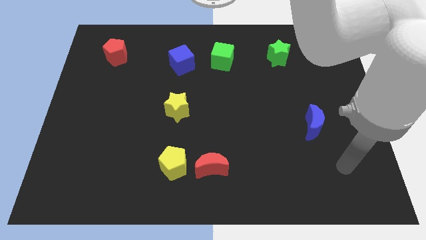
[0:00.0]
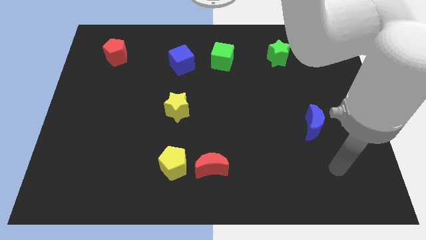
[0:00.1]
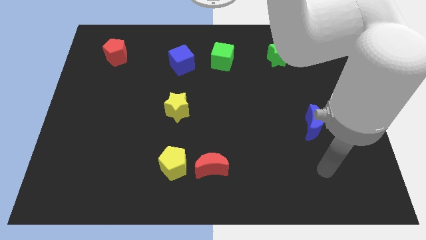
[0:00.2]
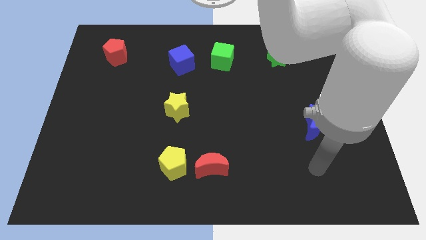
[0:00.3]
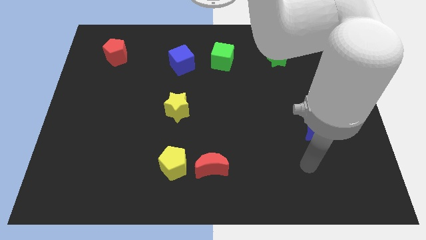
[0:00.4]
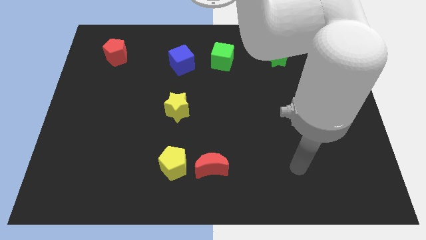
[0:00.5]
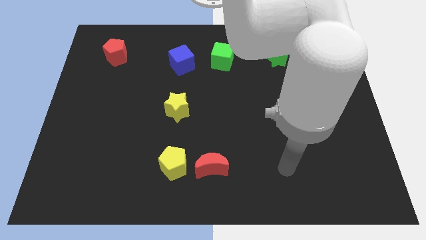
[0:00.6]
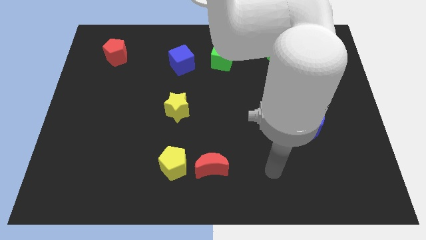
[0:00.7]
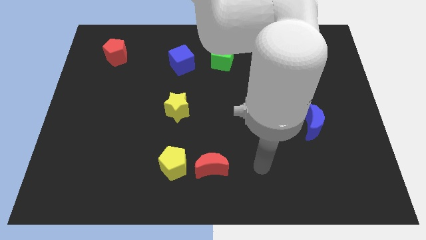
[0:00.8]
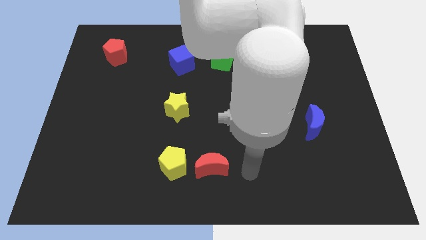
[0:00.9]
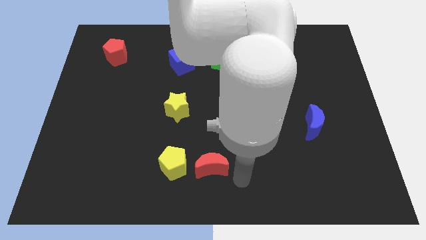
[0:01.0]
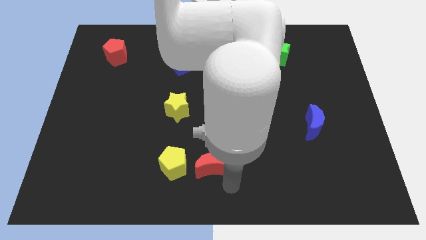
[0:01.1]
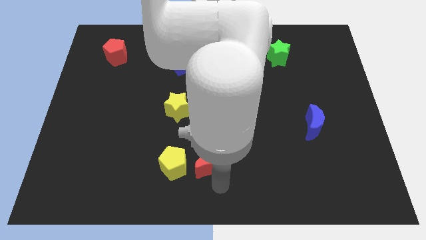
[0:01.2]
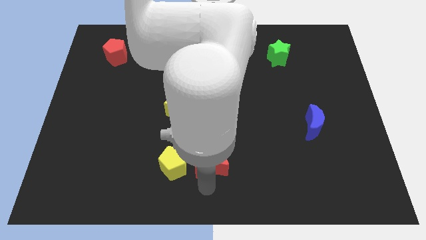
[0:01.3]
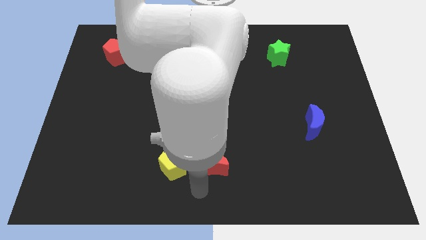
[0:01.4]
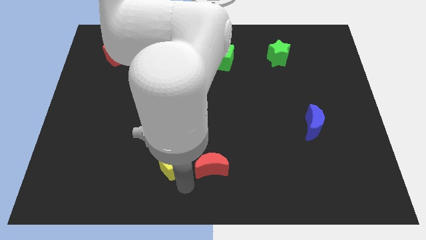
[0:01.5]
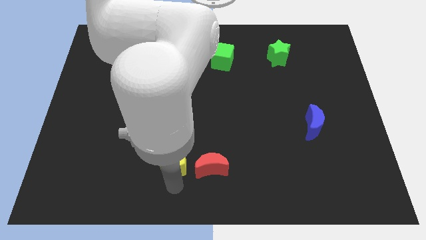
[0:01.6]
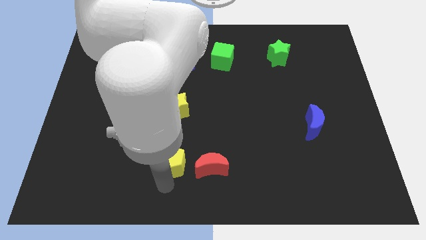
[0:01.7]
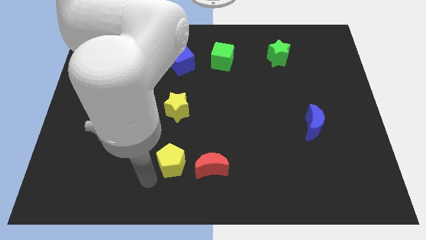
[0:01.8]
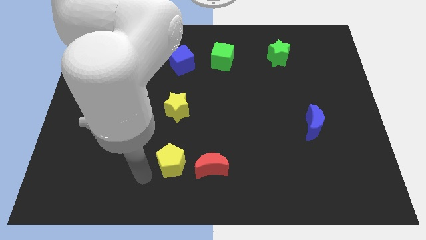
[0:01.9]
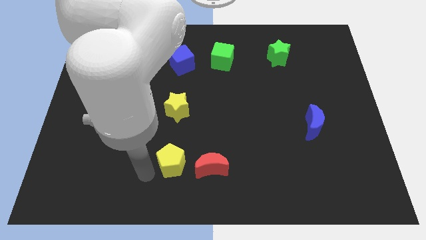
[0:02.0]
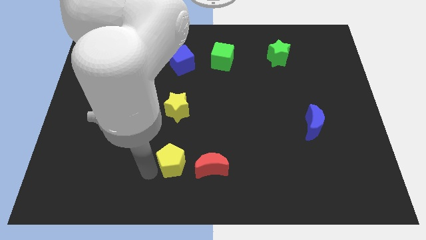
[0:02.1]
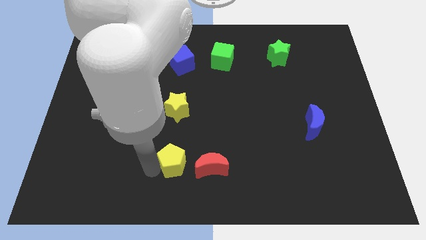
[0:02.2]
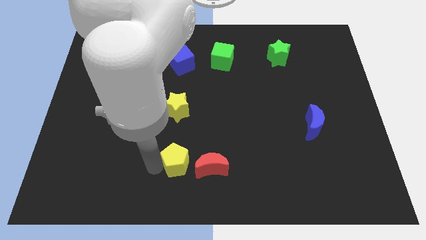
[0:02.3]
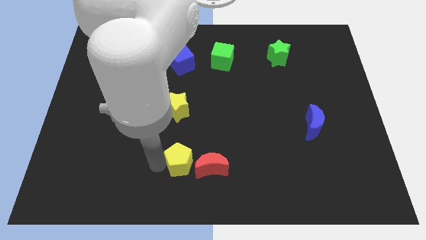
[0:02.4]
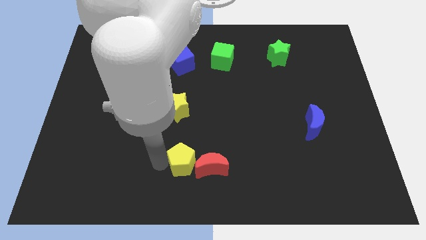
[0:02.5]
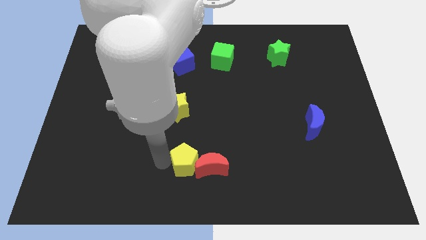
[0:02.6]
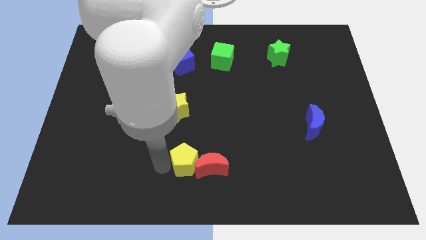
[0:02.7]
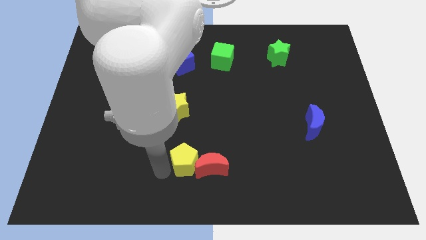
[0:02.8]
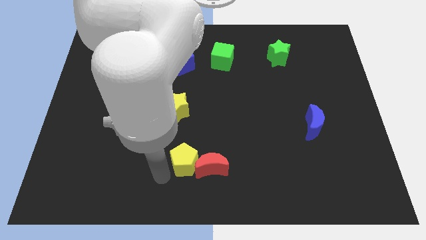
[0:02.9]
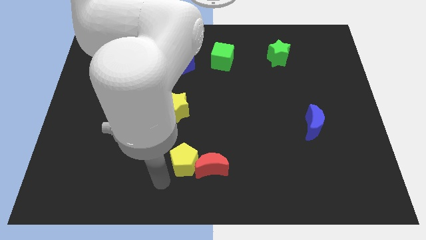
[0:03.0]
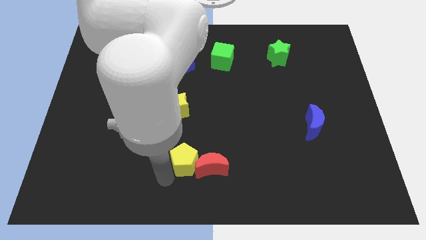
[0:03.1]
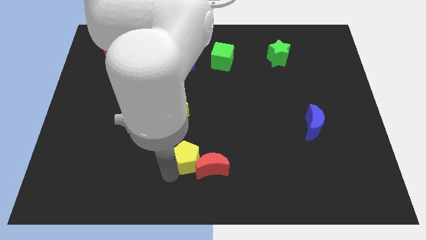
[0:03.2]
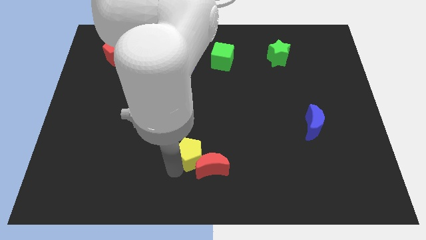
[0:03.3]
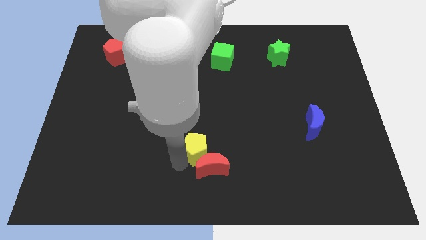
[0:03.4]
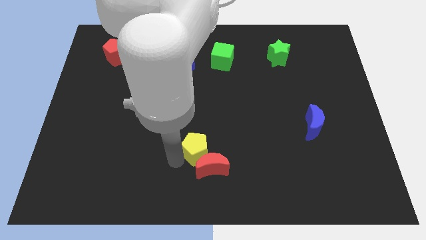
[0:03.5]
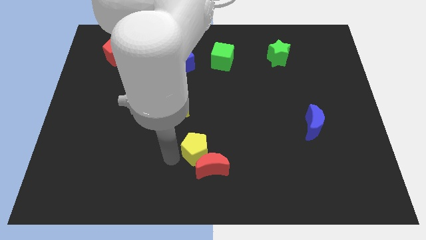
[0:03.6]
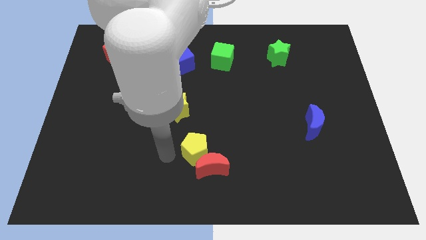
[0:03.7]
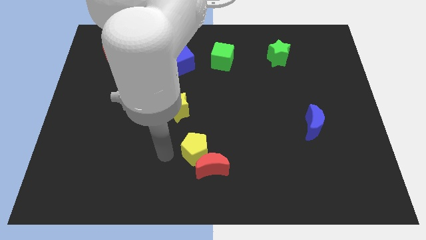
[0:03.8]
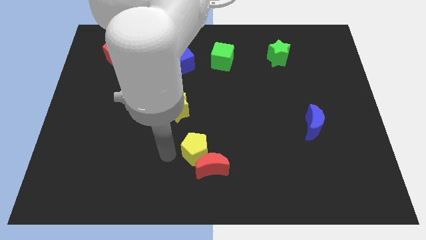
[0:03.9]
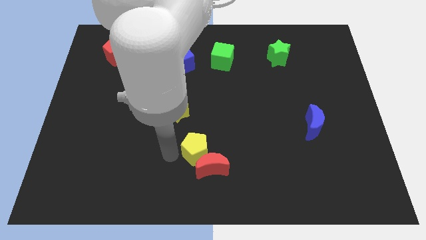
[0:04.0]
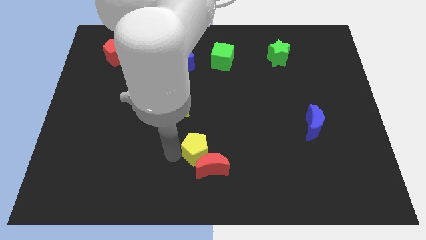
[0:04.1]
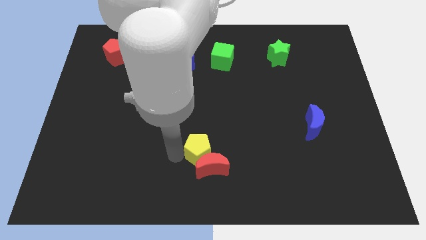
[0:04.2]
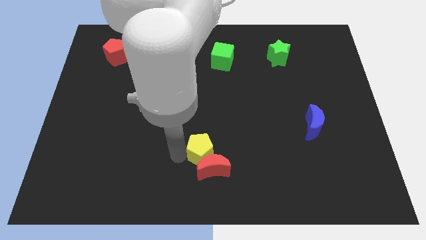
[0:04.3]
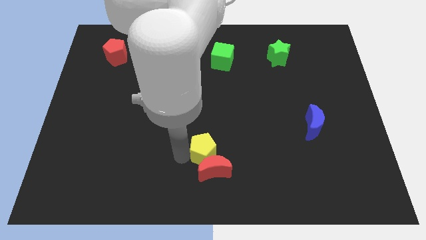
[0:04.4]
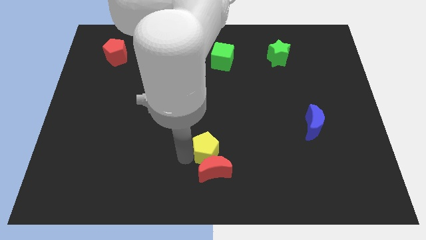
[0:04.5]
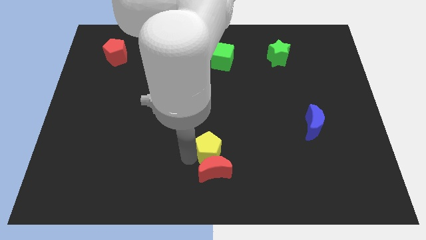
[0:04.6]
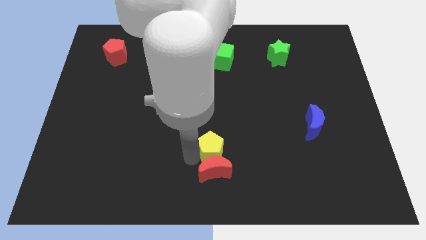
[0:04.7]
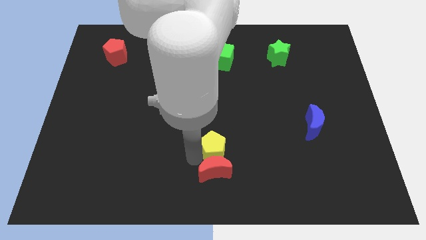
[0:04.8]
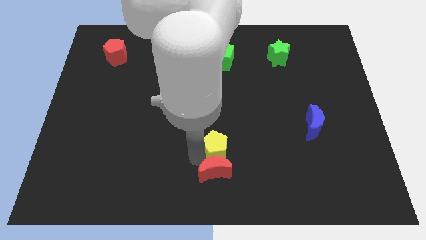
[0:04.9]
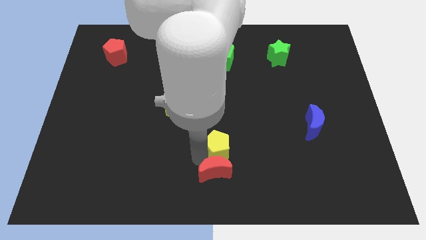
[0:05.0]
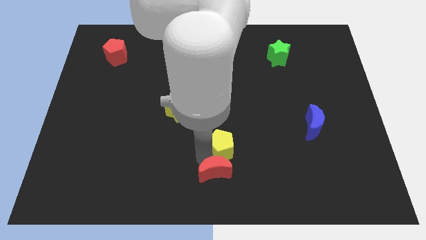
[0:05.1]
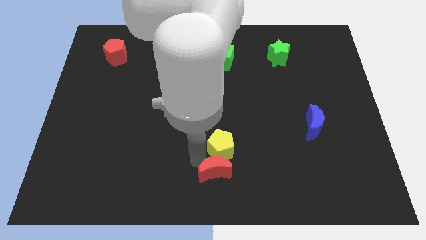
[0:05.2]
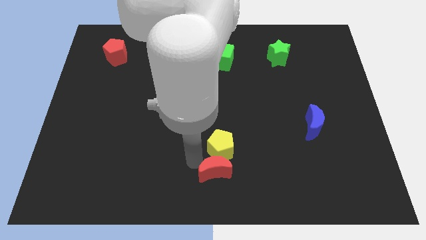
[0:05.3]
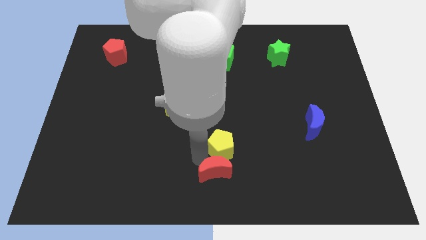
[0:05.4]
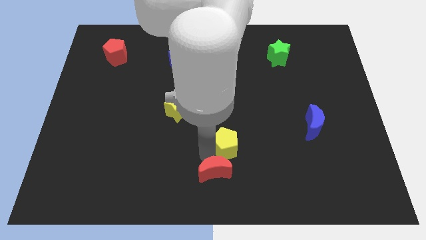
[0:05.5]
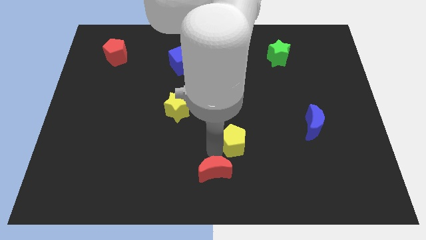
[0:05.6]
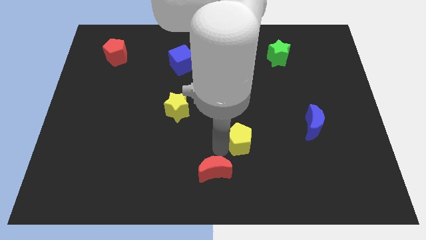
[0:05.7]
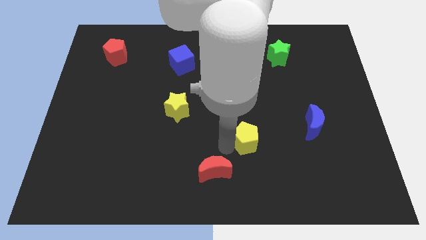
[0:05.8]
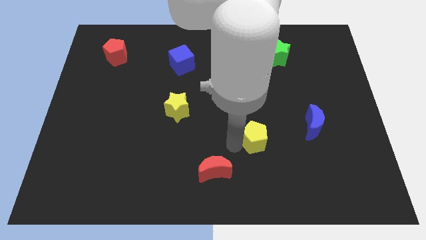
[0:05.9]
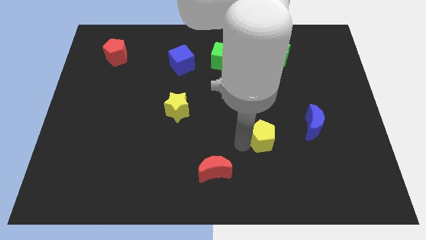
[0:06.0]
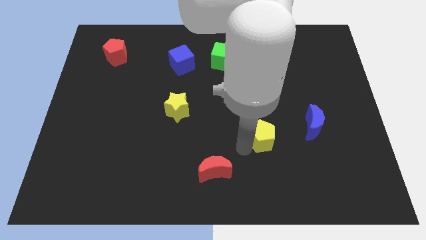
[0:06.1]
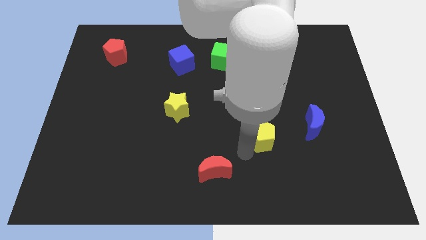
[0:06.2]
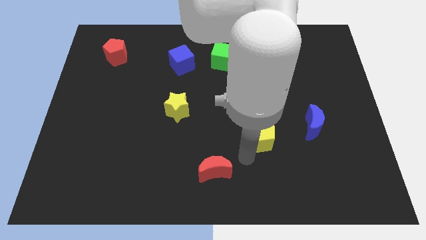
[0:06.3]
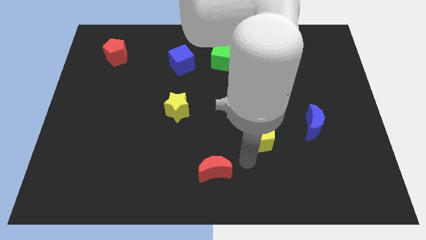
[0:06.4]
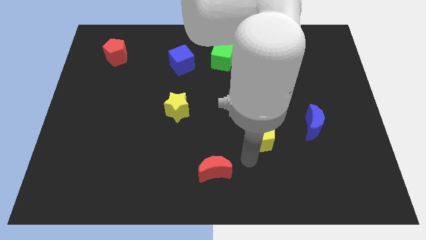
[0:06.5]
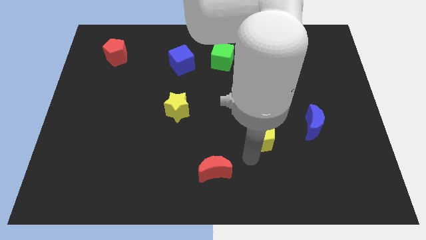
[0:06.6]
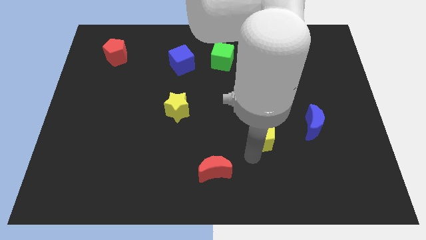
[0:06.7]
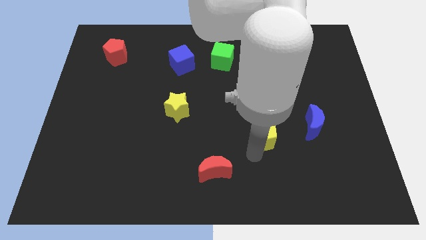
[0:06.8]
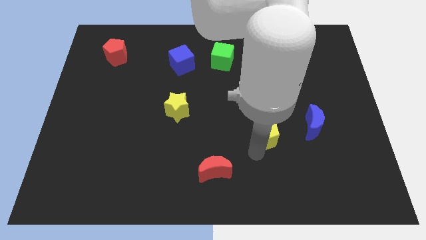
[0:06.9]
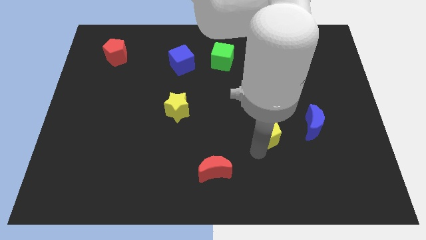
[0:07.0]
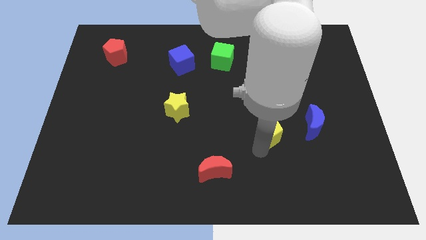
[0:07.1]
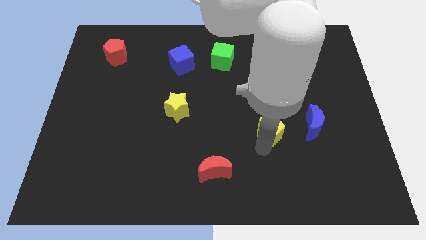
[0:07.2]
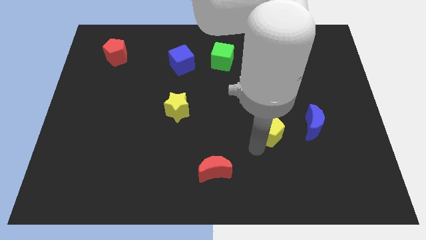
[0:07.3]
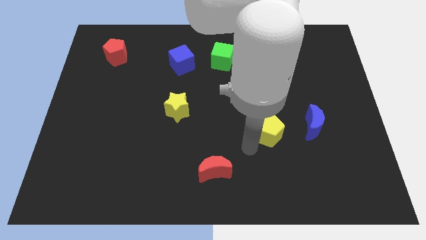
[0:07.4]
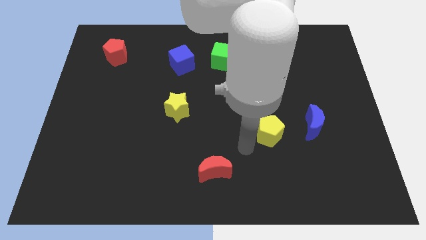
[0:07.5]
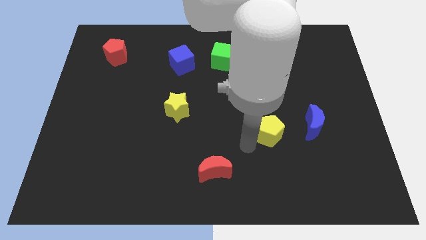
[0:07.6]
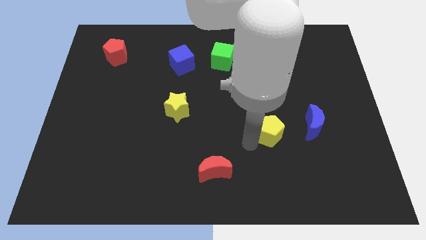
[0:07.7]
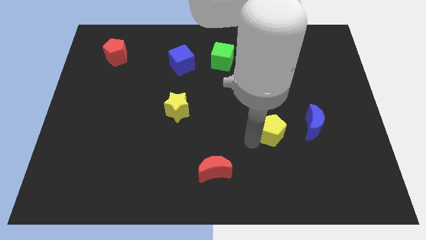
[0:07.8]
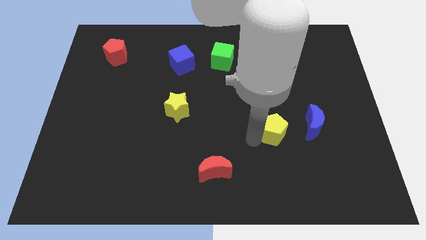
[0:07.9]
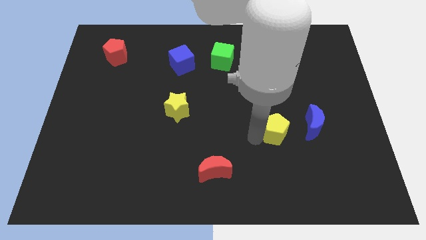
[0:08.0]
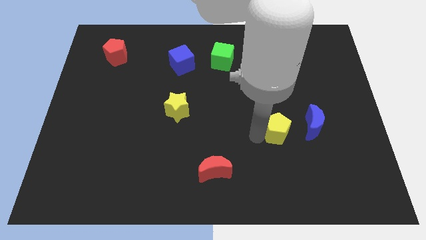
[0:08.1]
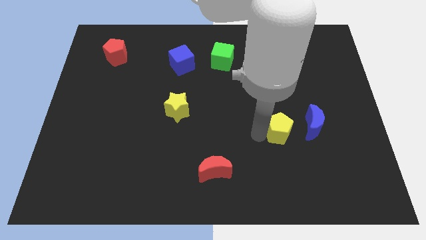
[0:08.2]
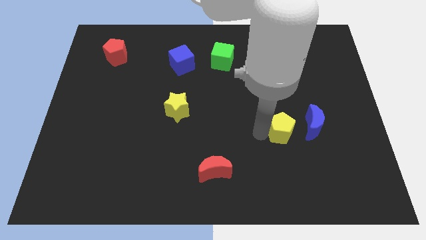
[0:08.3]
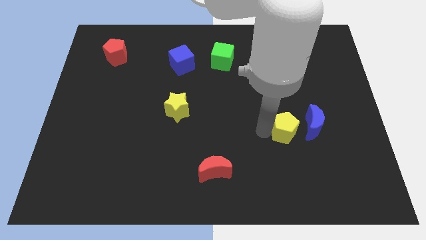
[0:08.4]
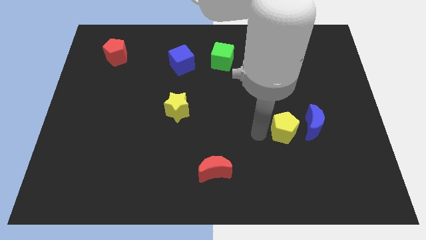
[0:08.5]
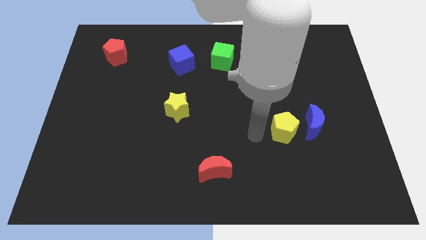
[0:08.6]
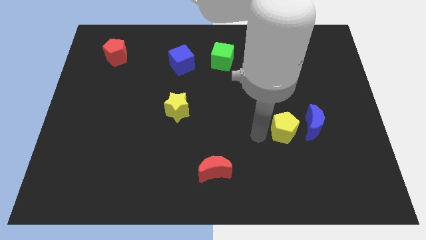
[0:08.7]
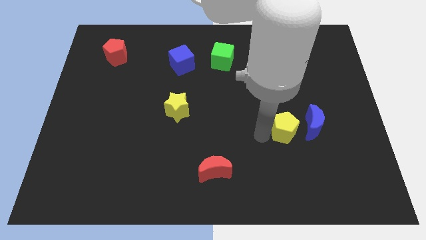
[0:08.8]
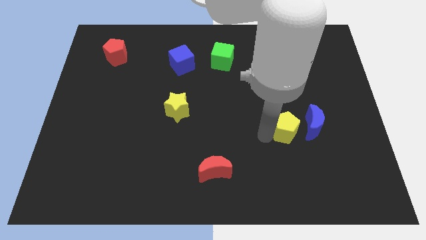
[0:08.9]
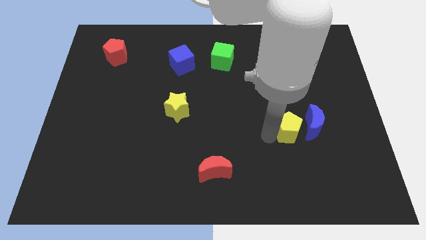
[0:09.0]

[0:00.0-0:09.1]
slide the yellow pentagon next to the blue moon
